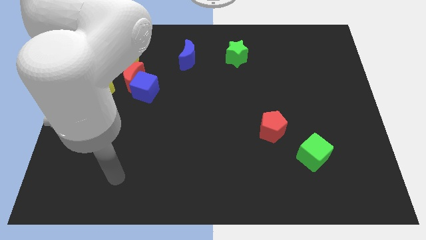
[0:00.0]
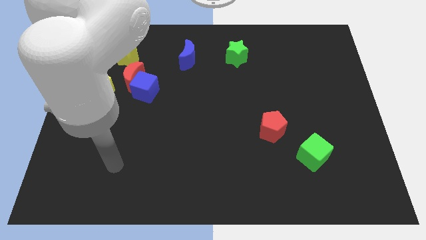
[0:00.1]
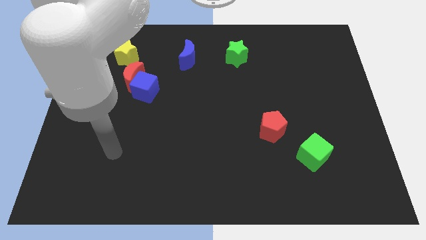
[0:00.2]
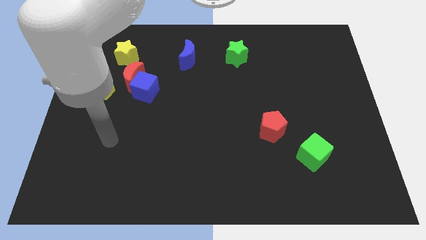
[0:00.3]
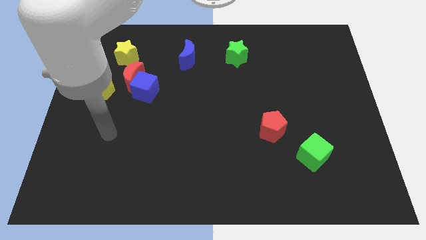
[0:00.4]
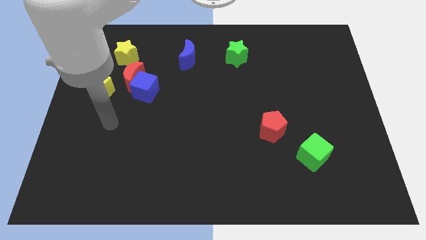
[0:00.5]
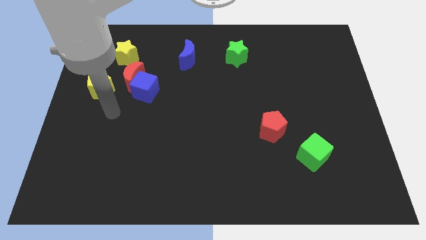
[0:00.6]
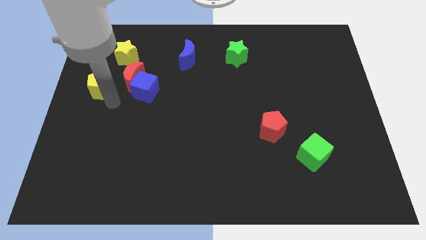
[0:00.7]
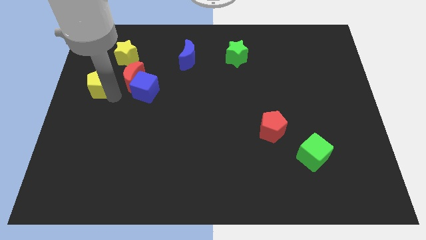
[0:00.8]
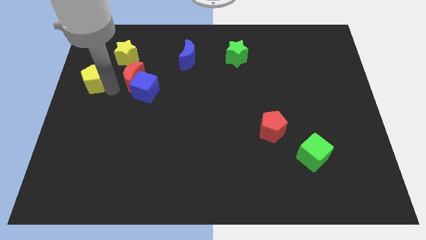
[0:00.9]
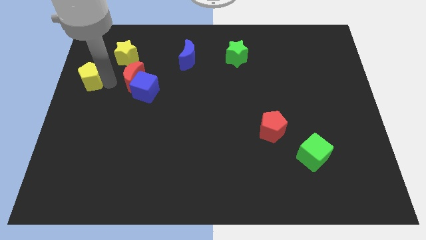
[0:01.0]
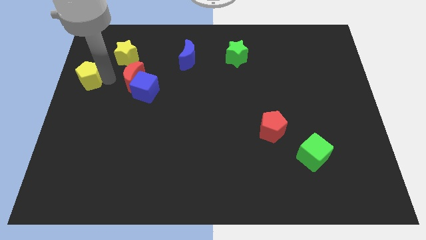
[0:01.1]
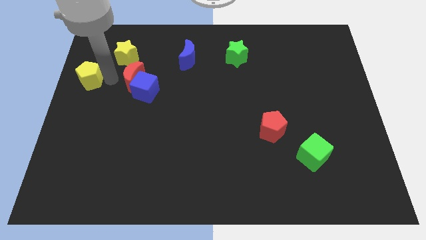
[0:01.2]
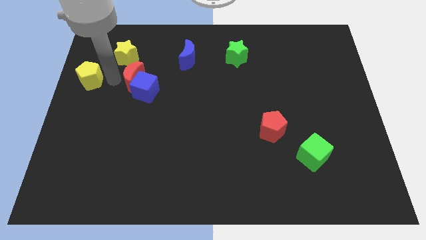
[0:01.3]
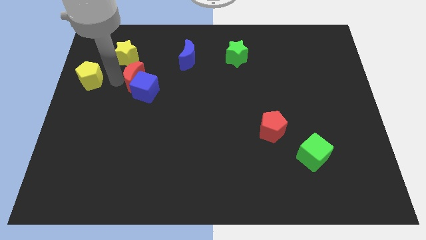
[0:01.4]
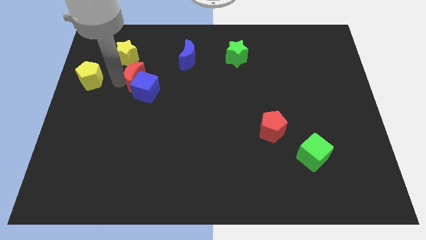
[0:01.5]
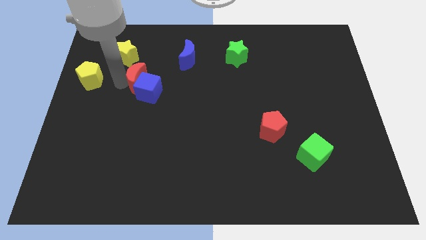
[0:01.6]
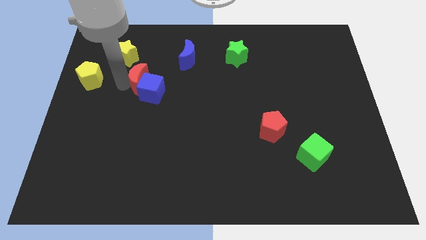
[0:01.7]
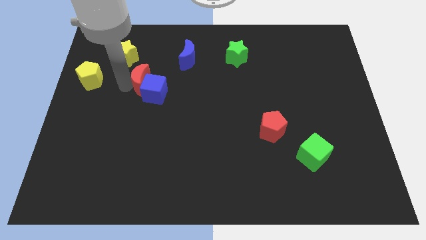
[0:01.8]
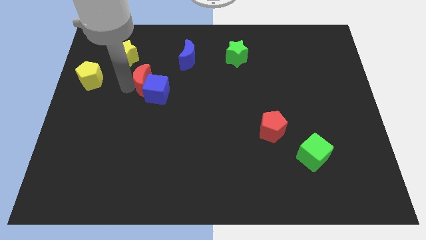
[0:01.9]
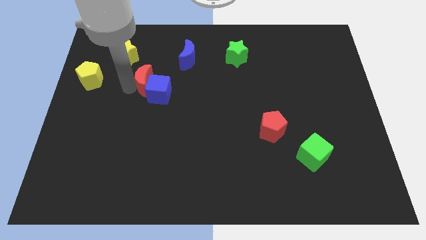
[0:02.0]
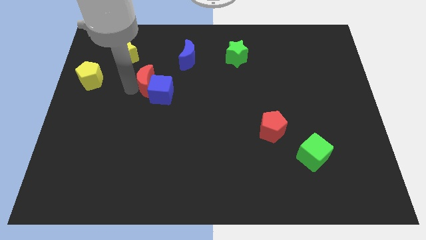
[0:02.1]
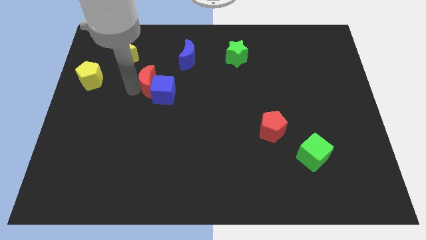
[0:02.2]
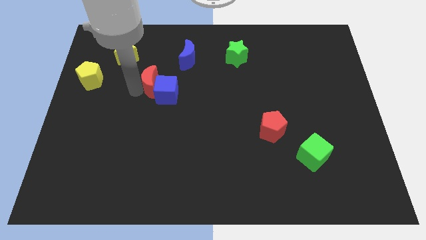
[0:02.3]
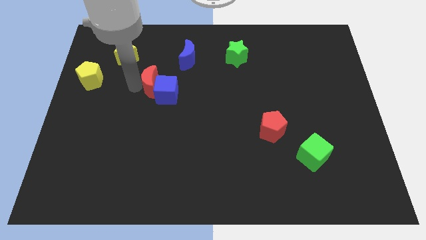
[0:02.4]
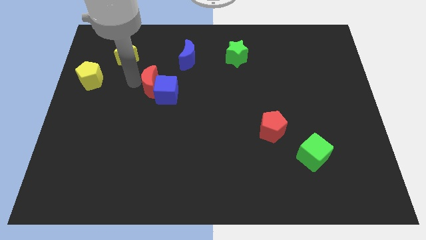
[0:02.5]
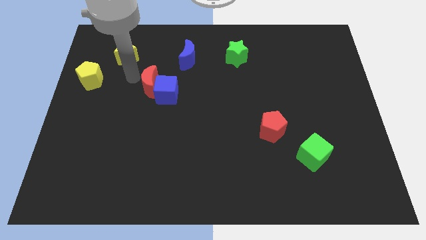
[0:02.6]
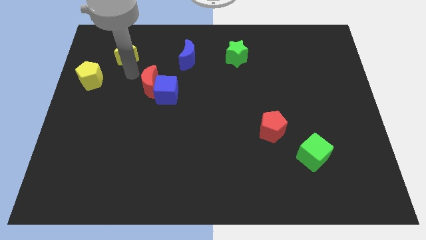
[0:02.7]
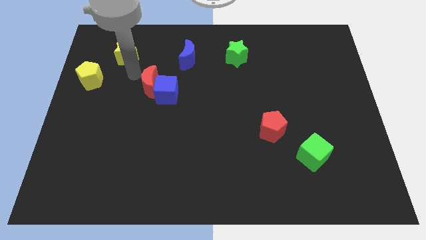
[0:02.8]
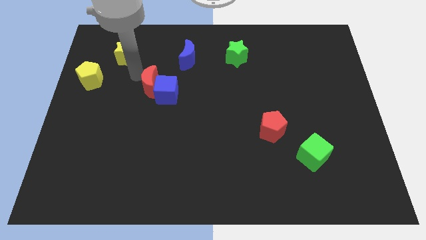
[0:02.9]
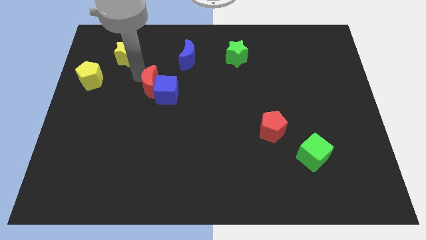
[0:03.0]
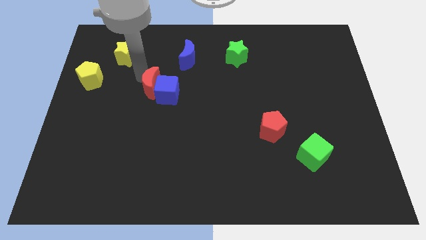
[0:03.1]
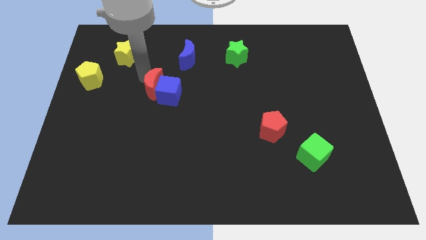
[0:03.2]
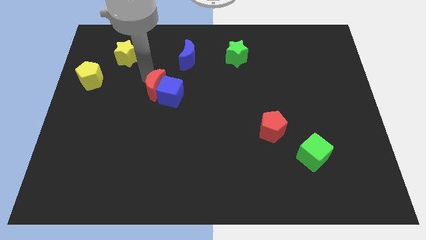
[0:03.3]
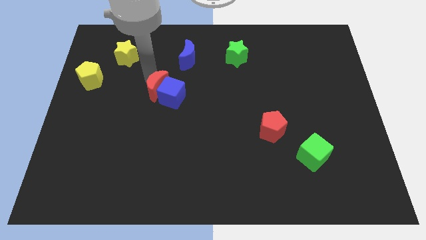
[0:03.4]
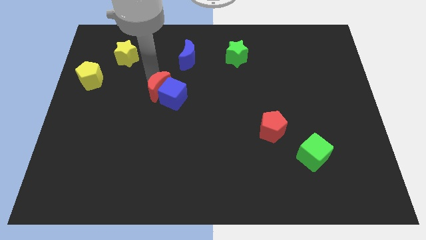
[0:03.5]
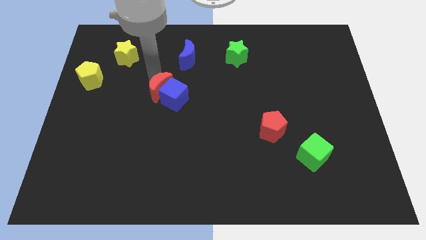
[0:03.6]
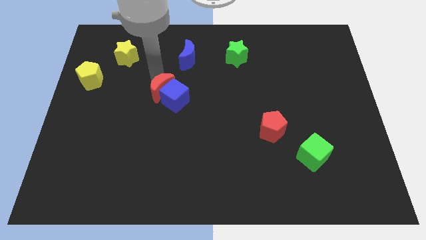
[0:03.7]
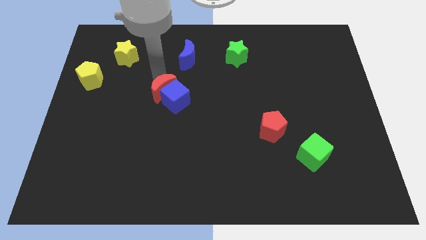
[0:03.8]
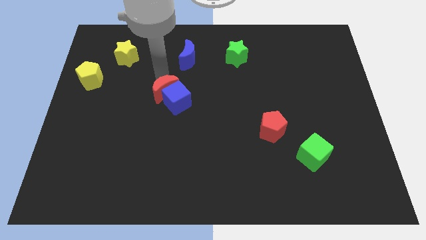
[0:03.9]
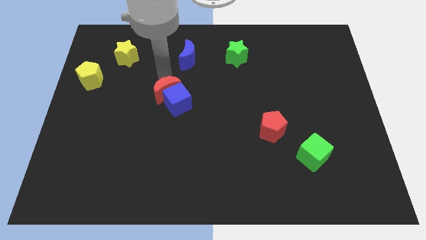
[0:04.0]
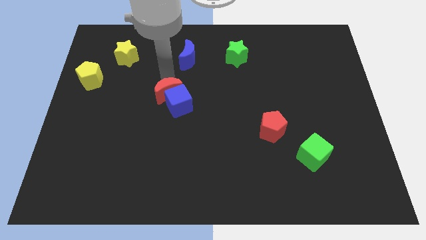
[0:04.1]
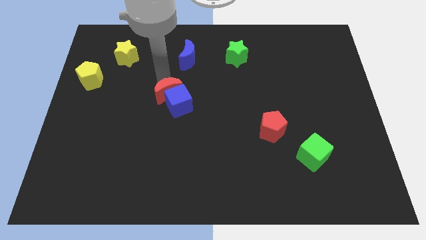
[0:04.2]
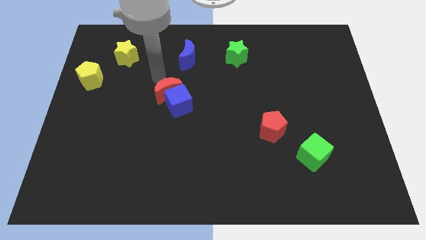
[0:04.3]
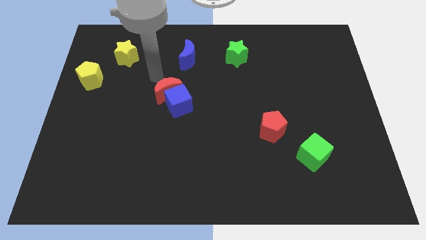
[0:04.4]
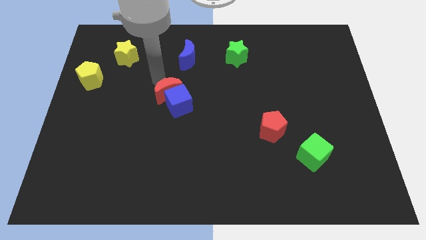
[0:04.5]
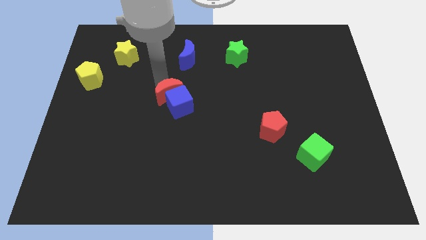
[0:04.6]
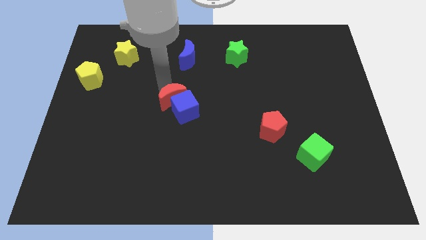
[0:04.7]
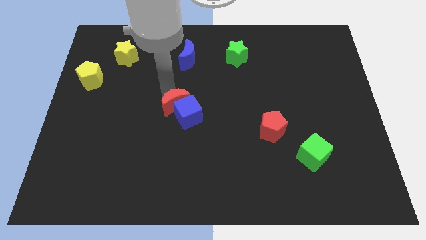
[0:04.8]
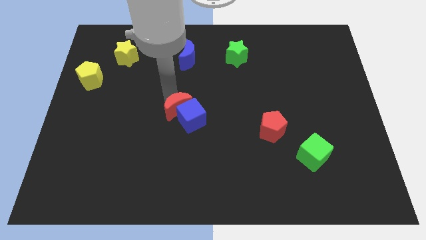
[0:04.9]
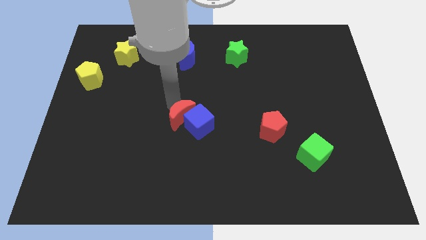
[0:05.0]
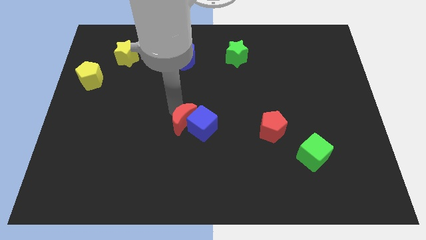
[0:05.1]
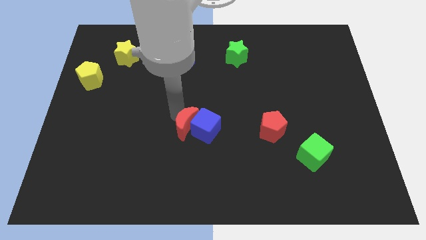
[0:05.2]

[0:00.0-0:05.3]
move the red moon downwards and to the right diagonally

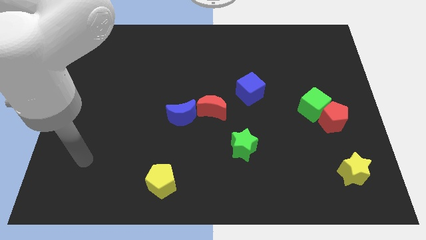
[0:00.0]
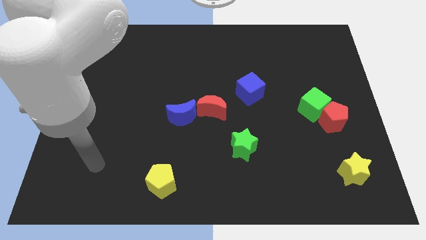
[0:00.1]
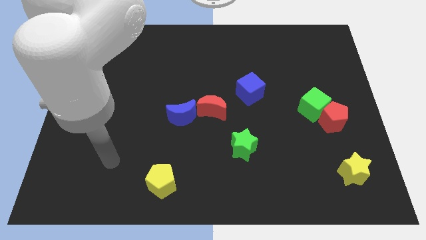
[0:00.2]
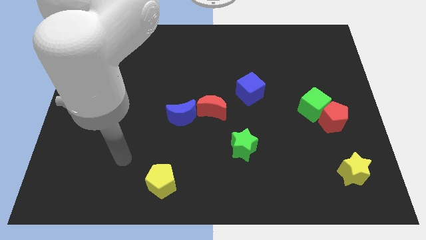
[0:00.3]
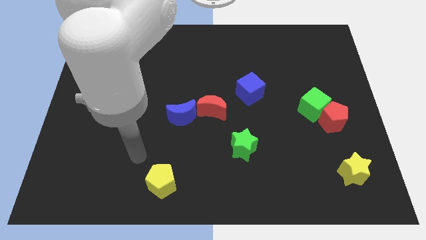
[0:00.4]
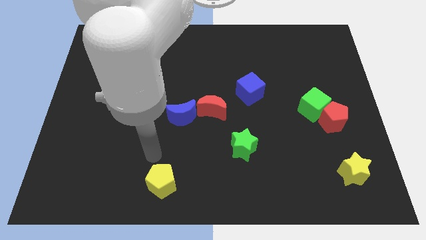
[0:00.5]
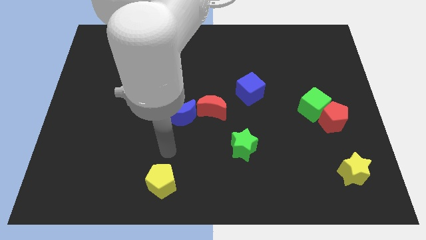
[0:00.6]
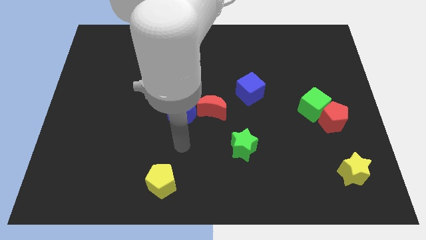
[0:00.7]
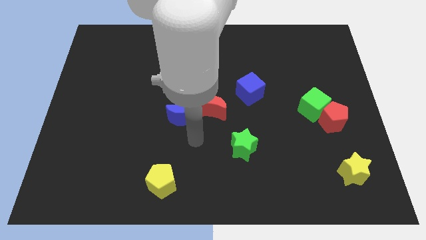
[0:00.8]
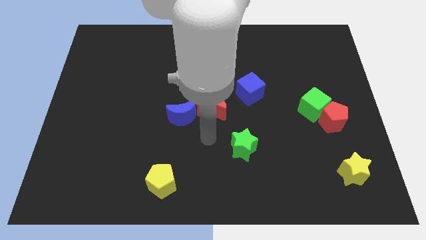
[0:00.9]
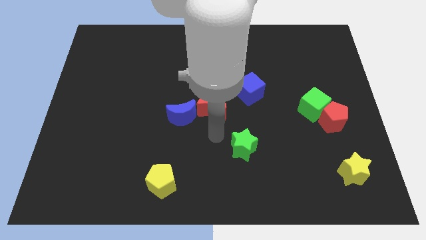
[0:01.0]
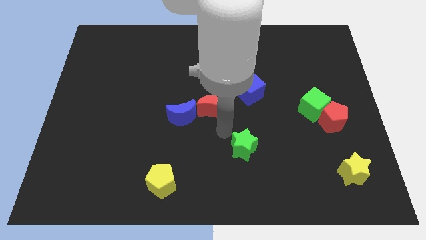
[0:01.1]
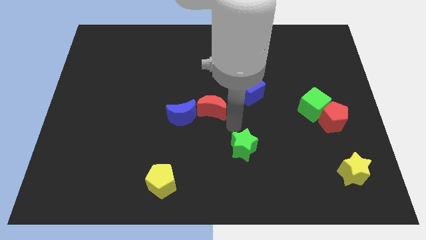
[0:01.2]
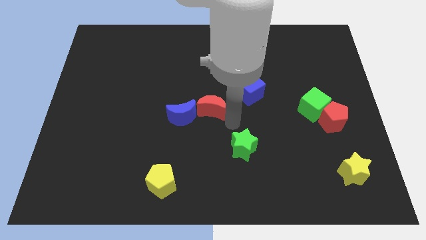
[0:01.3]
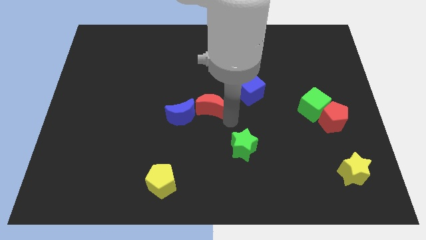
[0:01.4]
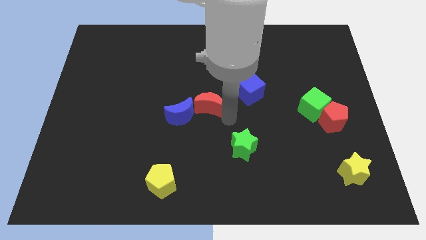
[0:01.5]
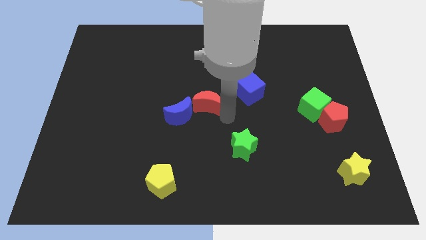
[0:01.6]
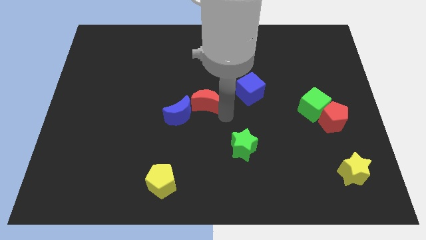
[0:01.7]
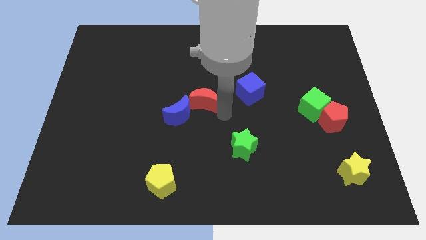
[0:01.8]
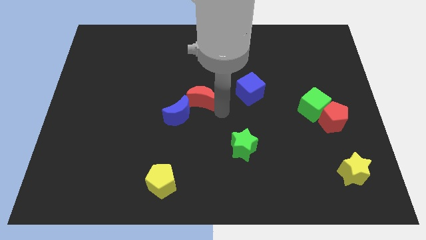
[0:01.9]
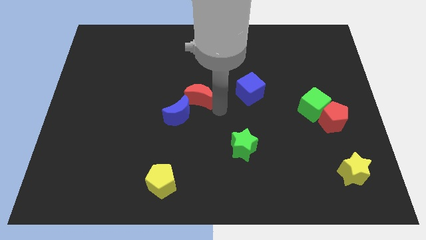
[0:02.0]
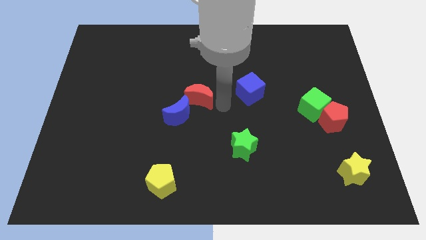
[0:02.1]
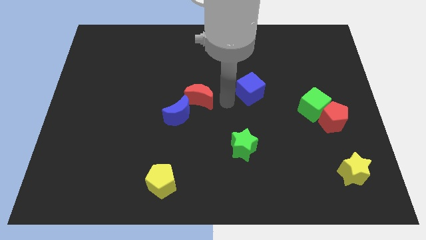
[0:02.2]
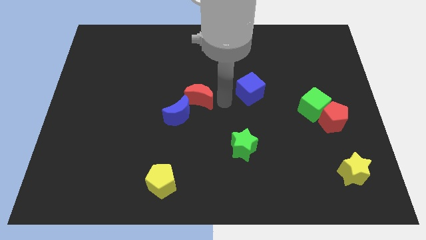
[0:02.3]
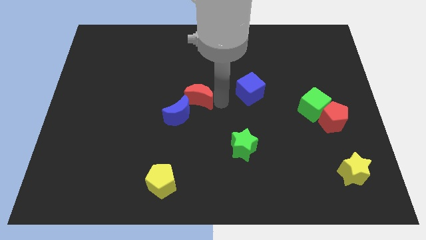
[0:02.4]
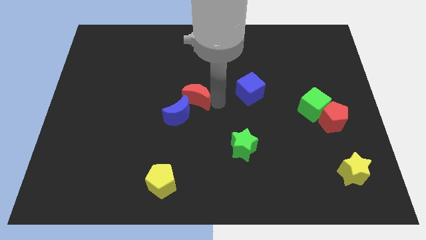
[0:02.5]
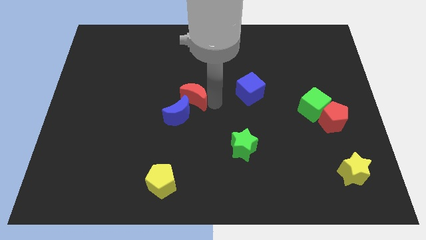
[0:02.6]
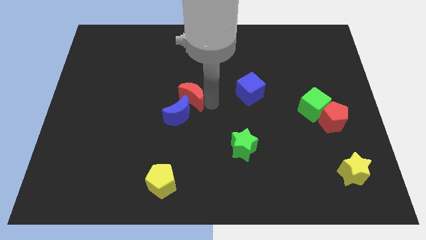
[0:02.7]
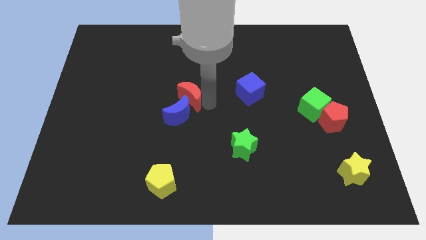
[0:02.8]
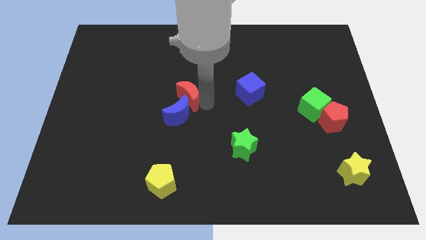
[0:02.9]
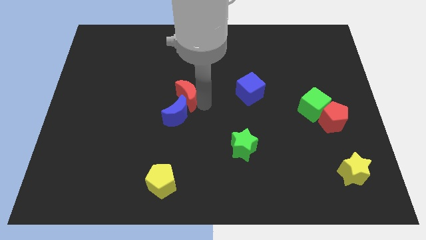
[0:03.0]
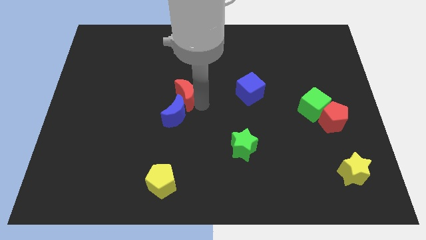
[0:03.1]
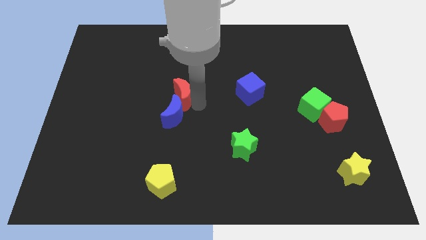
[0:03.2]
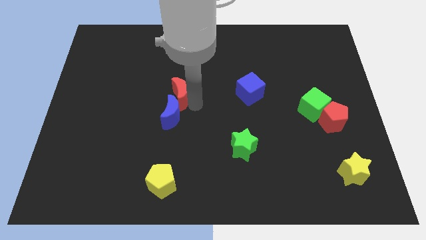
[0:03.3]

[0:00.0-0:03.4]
move the red moon somewhat to the left
